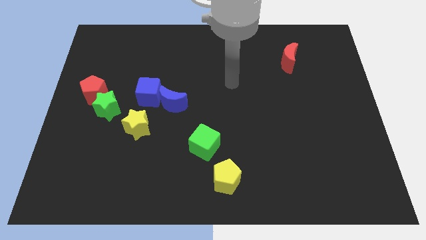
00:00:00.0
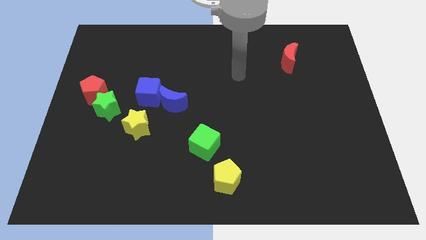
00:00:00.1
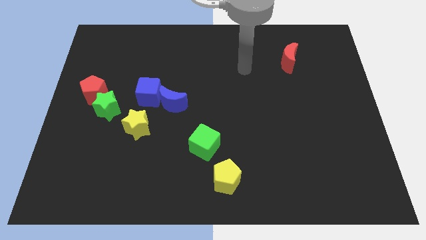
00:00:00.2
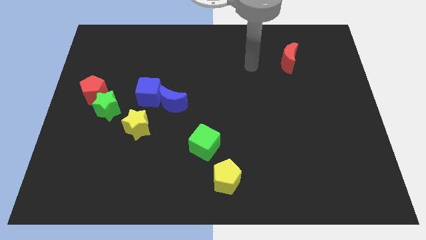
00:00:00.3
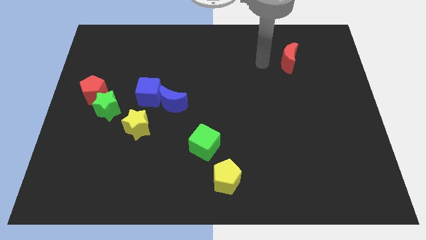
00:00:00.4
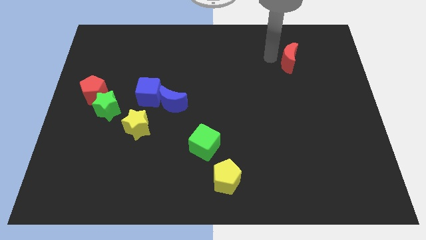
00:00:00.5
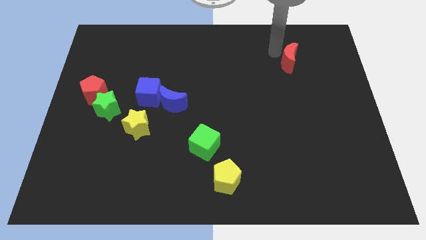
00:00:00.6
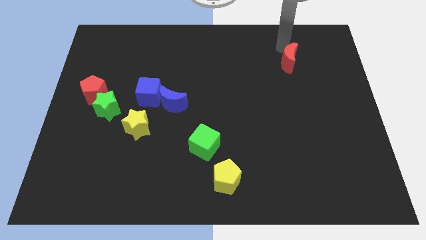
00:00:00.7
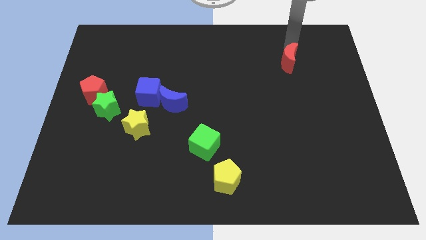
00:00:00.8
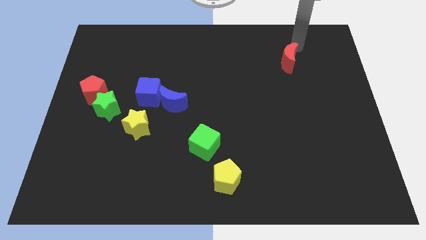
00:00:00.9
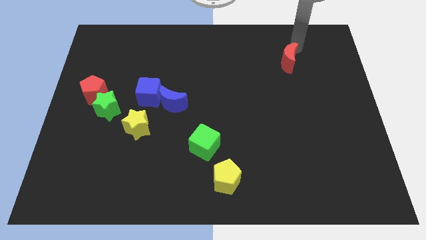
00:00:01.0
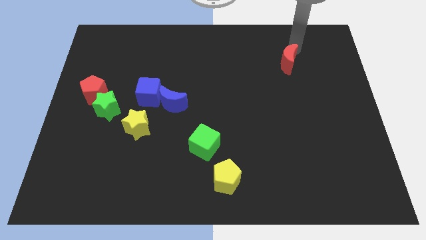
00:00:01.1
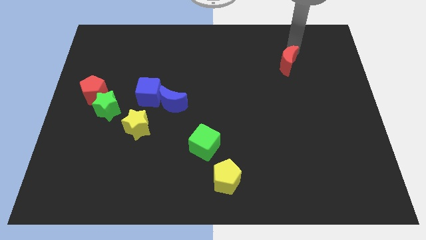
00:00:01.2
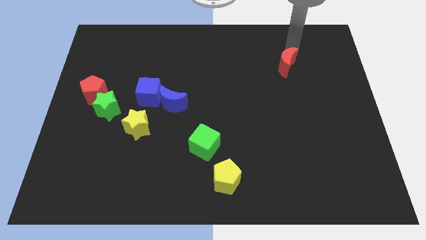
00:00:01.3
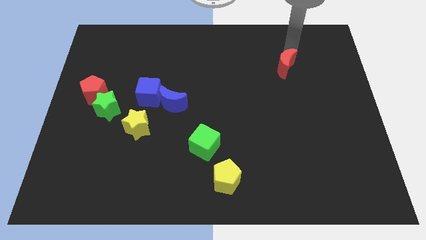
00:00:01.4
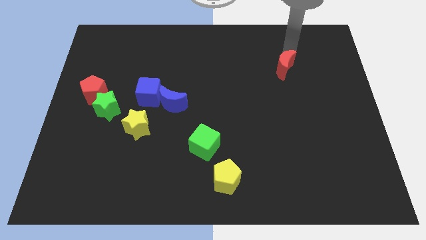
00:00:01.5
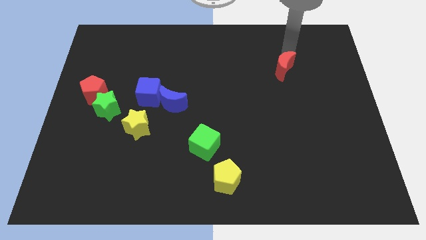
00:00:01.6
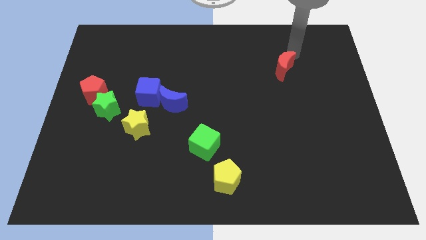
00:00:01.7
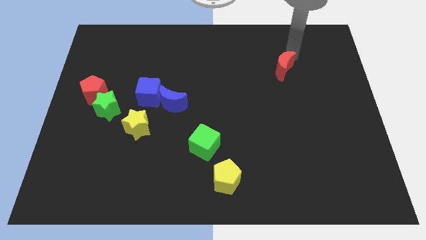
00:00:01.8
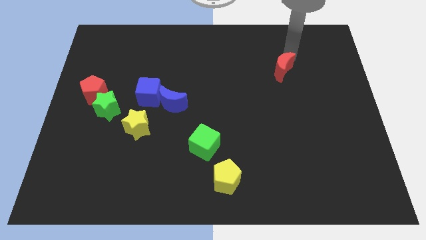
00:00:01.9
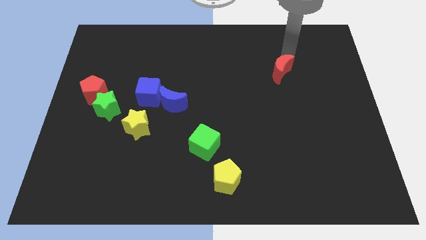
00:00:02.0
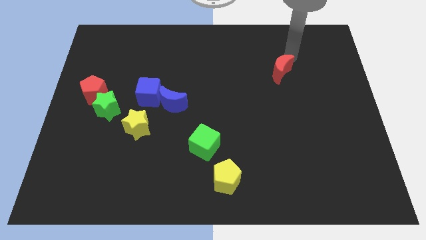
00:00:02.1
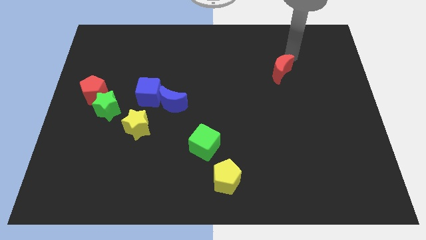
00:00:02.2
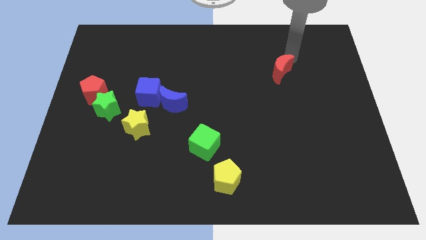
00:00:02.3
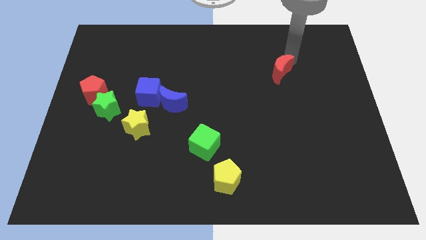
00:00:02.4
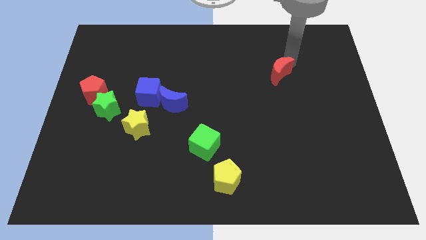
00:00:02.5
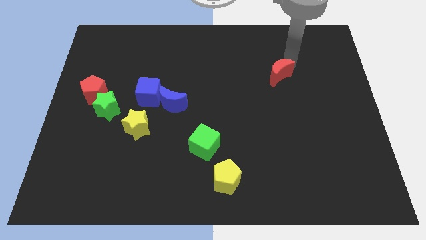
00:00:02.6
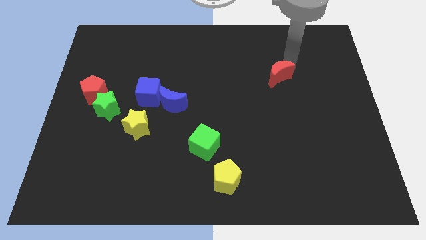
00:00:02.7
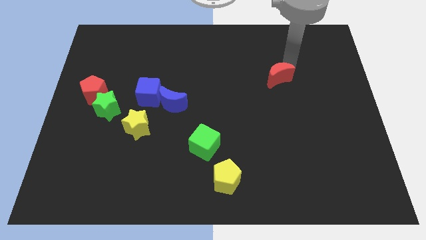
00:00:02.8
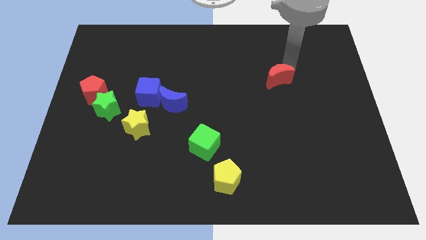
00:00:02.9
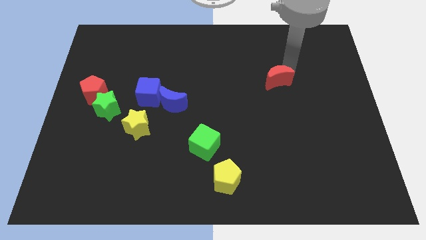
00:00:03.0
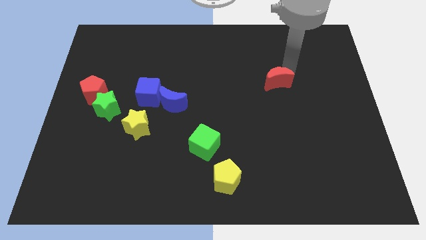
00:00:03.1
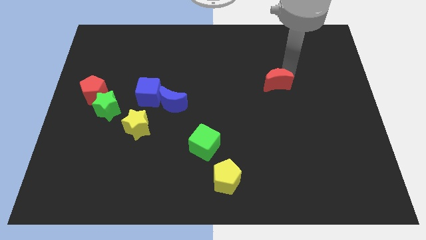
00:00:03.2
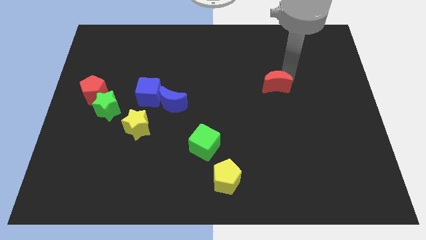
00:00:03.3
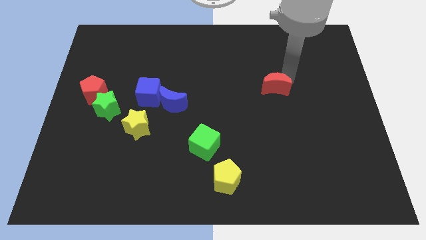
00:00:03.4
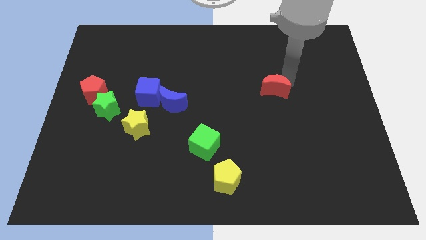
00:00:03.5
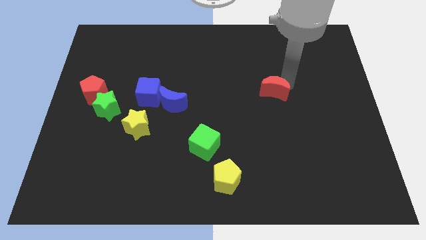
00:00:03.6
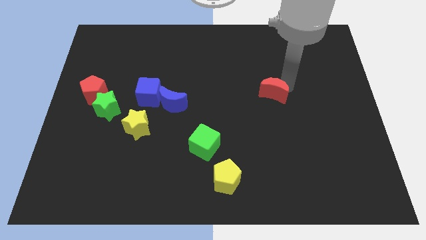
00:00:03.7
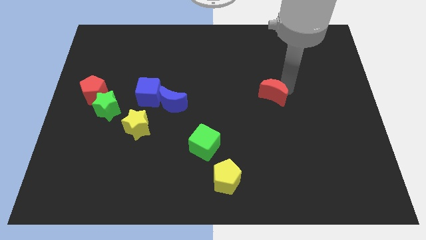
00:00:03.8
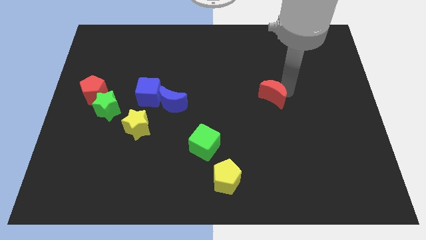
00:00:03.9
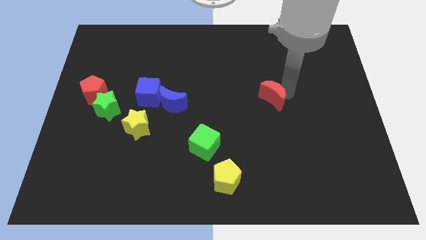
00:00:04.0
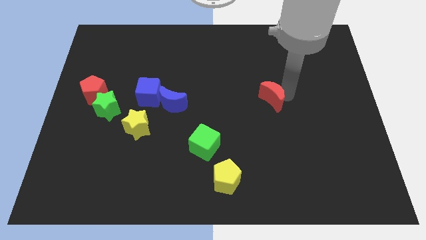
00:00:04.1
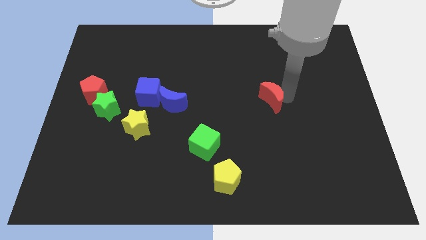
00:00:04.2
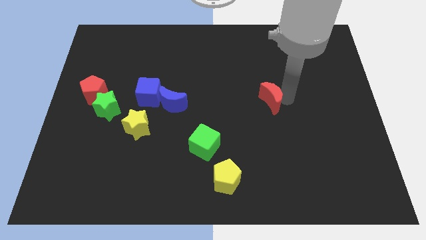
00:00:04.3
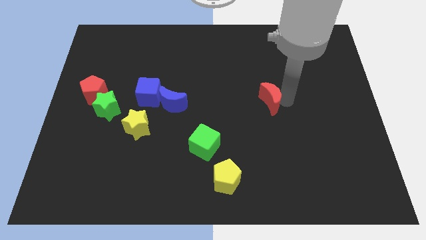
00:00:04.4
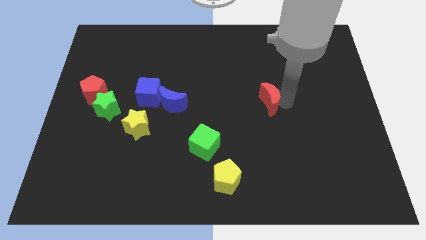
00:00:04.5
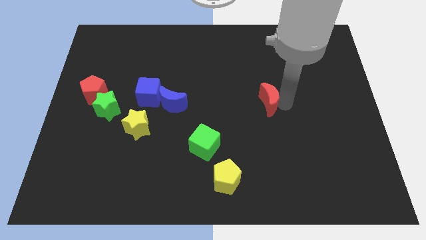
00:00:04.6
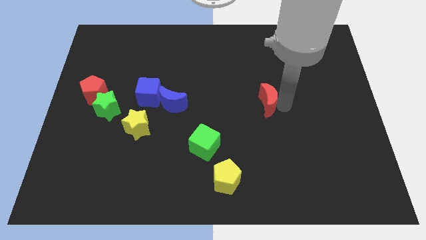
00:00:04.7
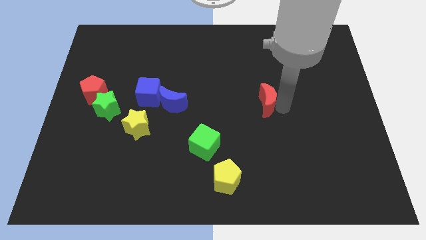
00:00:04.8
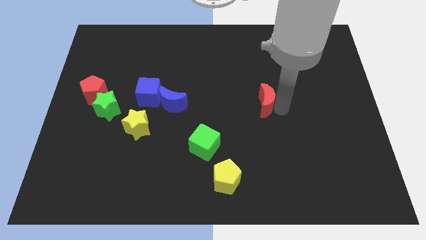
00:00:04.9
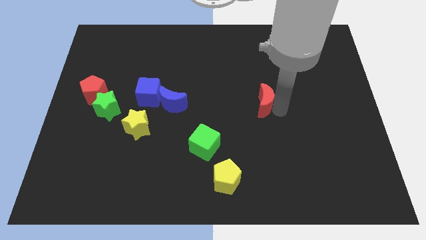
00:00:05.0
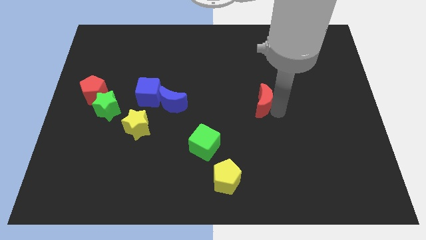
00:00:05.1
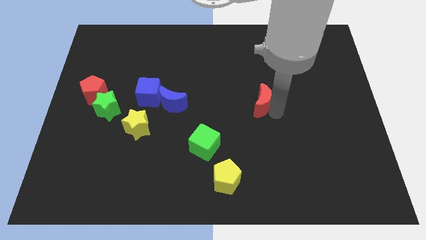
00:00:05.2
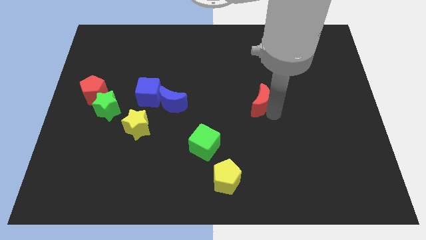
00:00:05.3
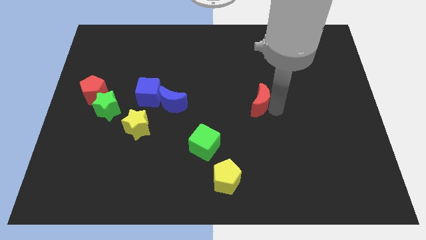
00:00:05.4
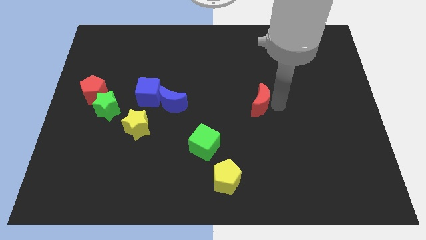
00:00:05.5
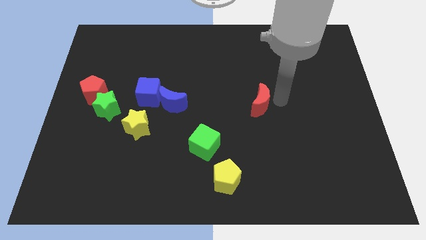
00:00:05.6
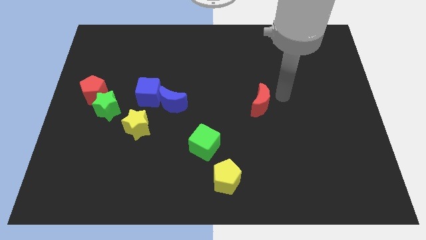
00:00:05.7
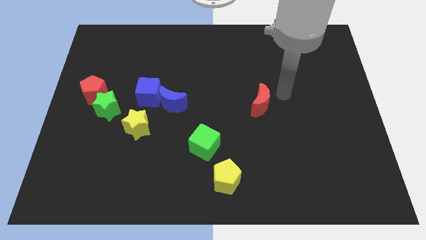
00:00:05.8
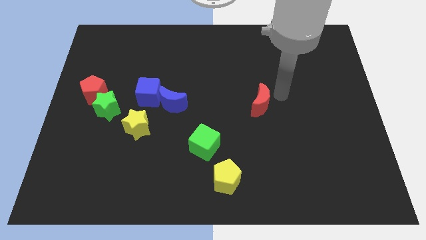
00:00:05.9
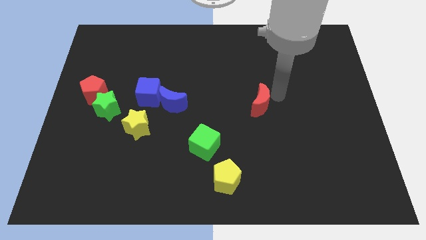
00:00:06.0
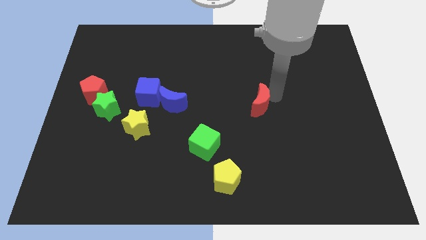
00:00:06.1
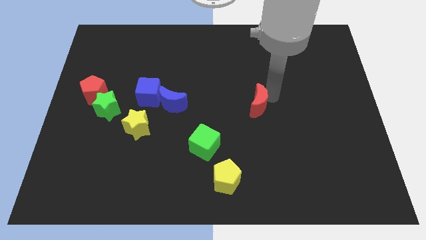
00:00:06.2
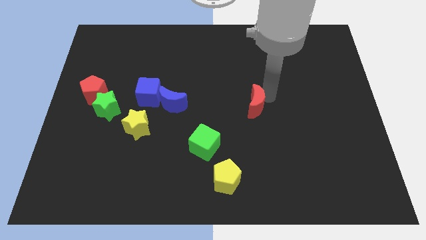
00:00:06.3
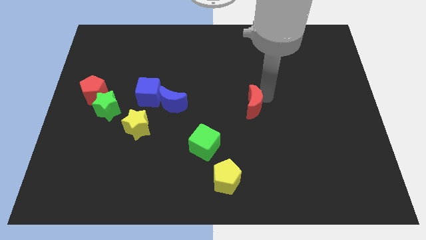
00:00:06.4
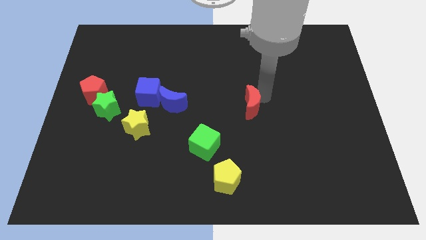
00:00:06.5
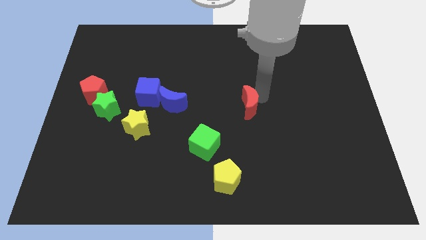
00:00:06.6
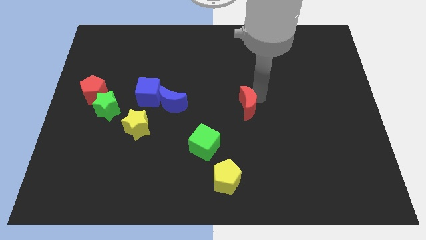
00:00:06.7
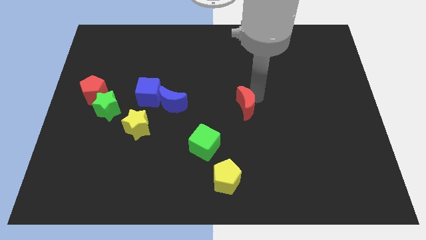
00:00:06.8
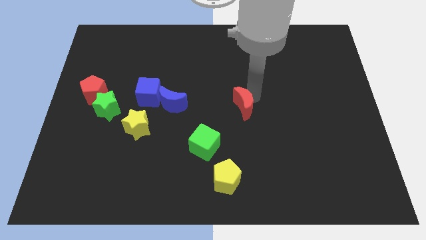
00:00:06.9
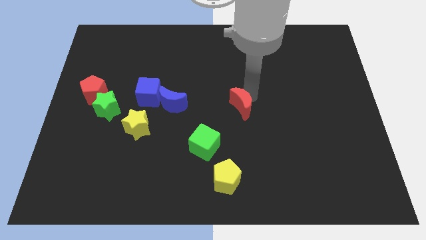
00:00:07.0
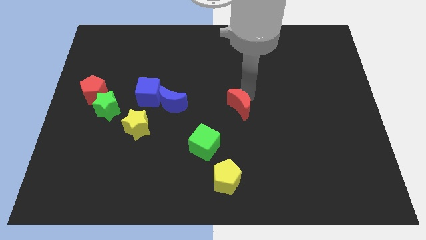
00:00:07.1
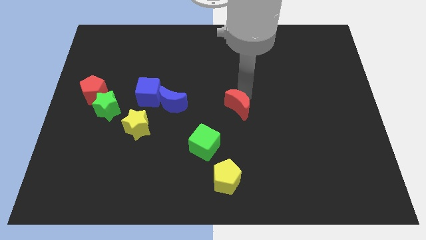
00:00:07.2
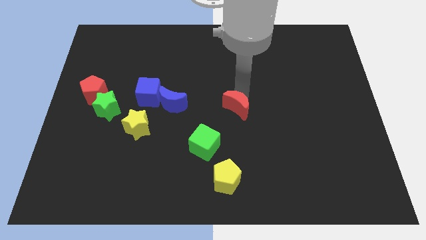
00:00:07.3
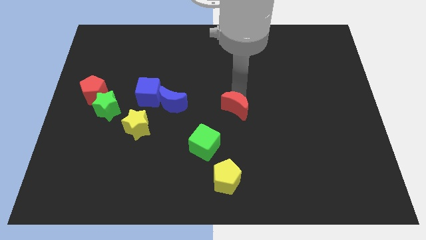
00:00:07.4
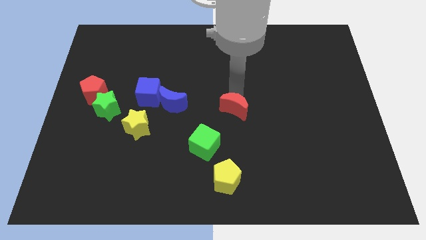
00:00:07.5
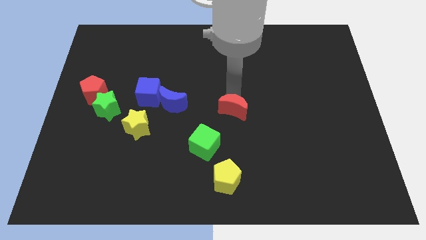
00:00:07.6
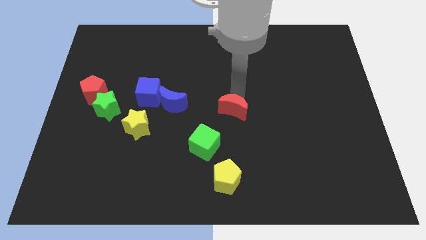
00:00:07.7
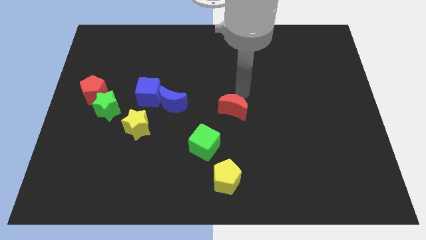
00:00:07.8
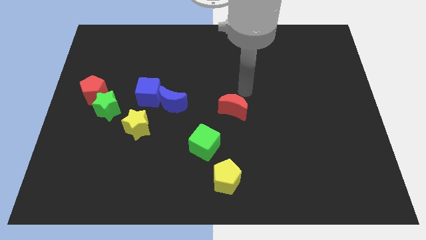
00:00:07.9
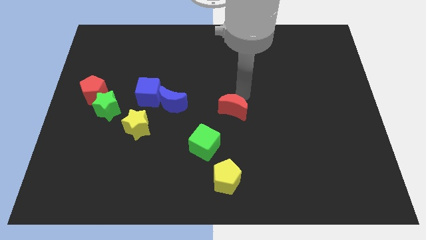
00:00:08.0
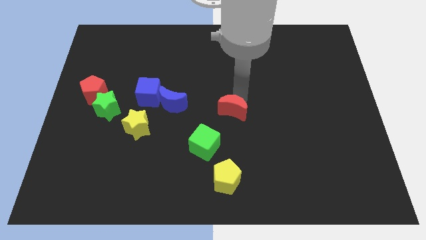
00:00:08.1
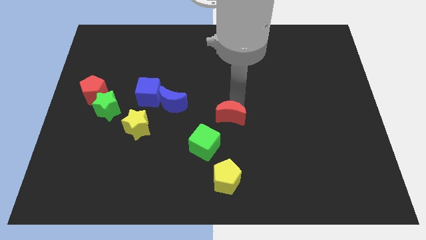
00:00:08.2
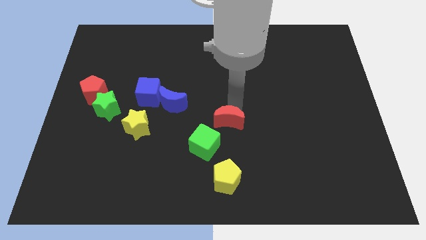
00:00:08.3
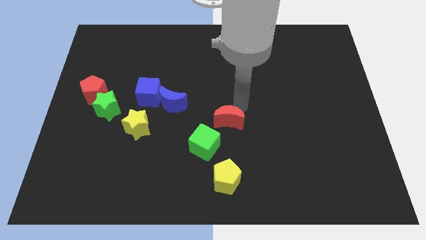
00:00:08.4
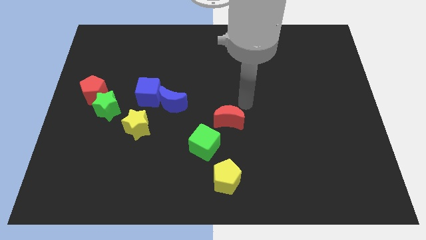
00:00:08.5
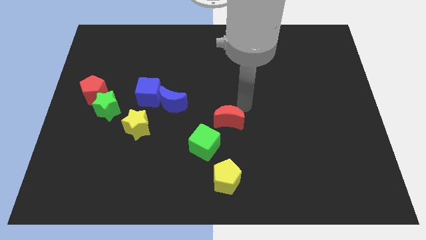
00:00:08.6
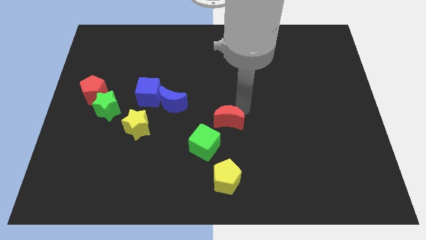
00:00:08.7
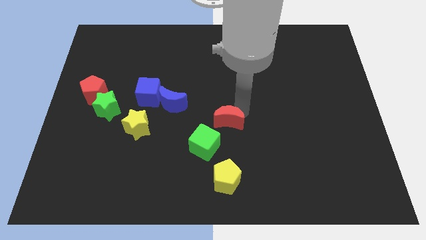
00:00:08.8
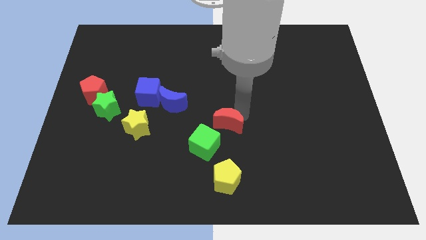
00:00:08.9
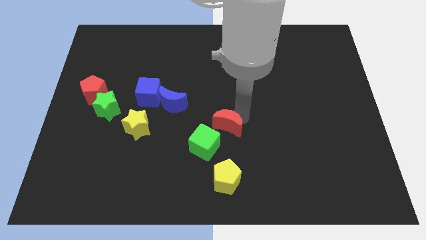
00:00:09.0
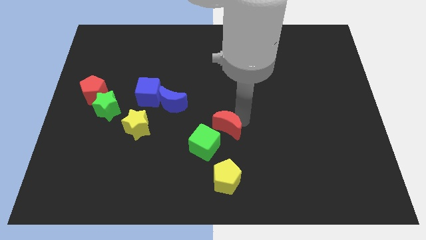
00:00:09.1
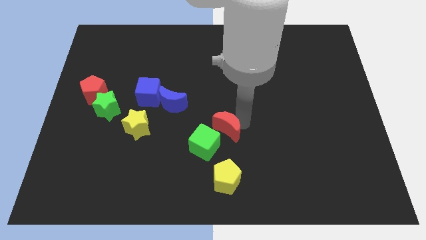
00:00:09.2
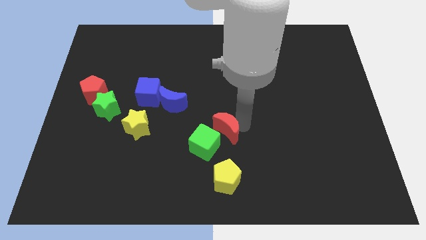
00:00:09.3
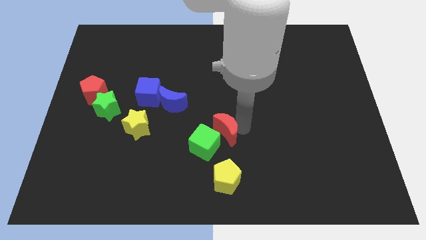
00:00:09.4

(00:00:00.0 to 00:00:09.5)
push the red moon to the green cube
